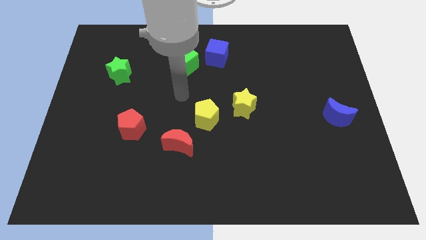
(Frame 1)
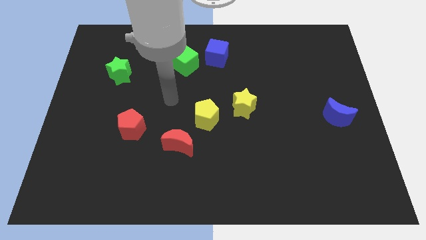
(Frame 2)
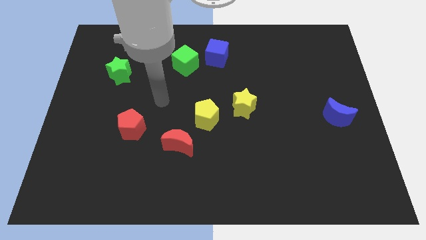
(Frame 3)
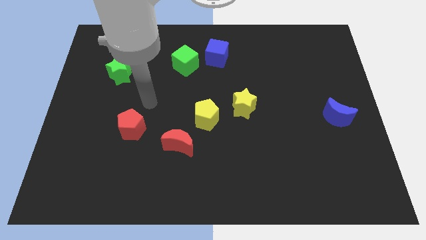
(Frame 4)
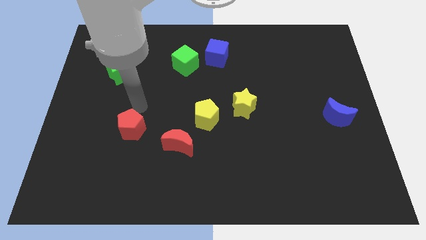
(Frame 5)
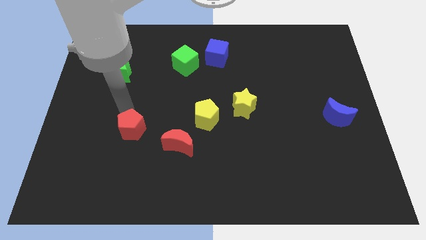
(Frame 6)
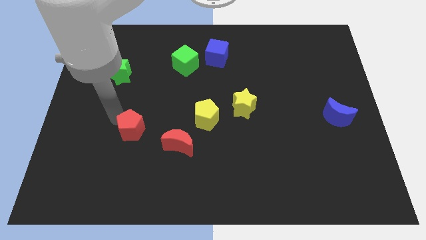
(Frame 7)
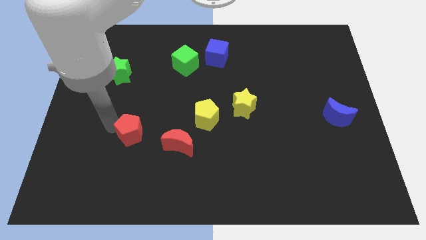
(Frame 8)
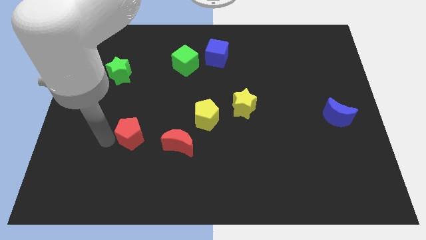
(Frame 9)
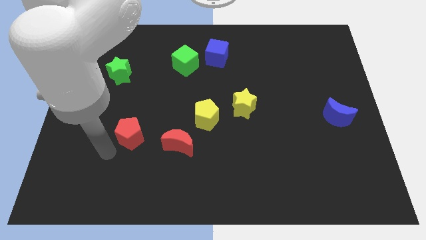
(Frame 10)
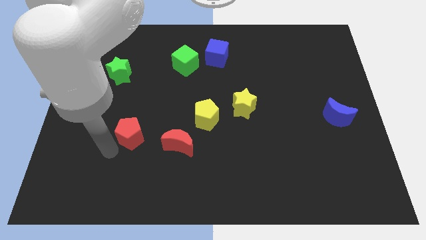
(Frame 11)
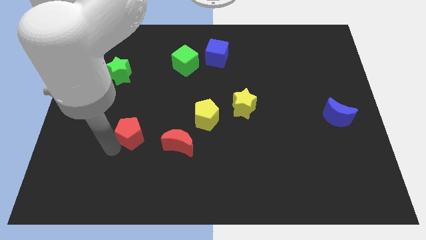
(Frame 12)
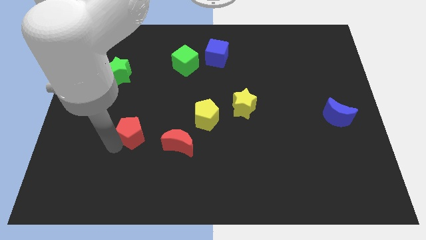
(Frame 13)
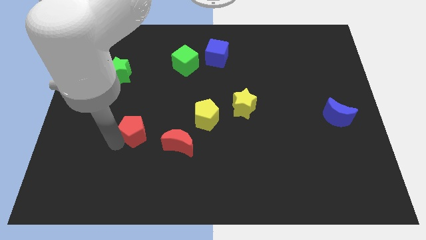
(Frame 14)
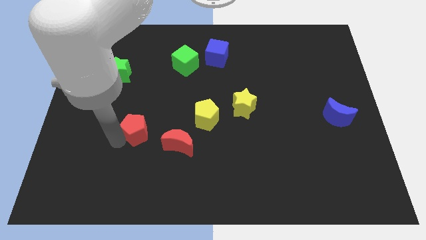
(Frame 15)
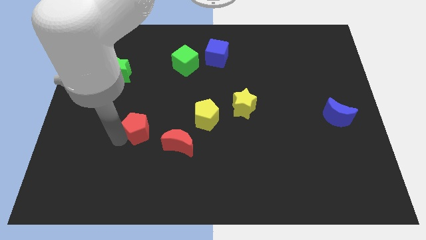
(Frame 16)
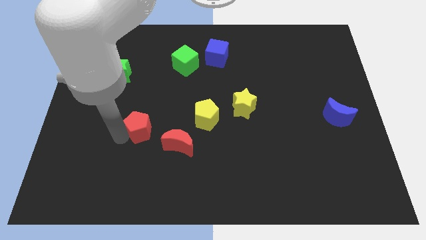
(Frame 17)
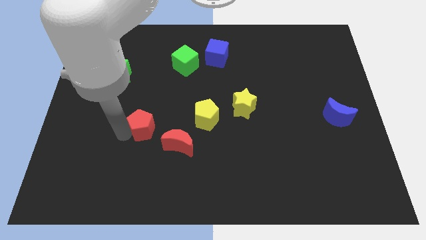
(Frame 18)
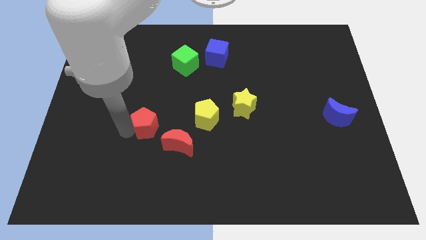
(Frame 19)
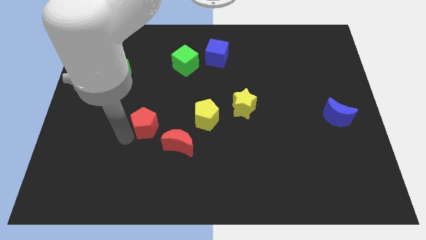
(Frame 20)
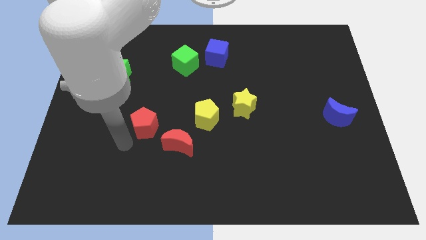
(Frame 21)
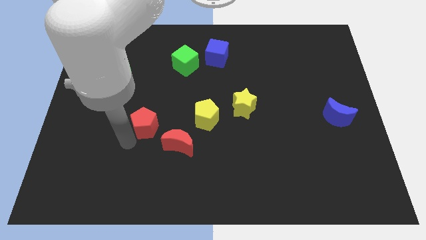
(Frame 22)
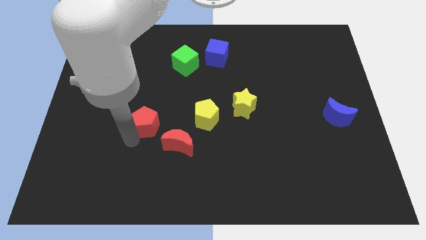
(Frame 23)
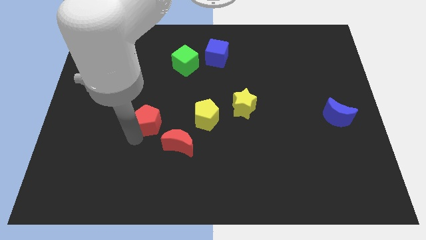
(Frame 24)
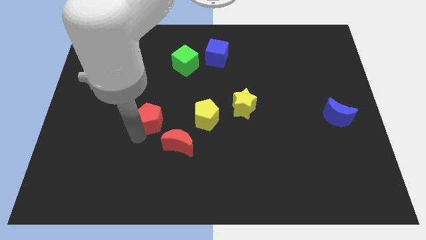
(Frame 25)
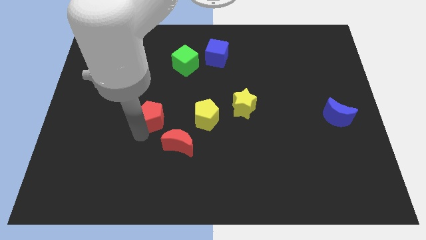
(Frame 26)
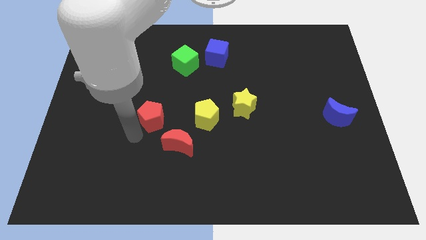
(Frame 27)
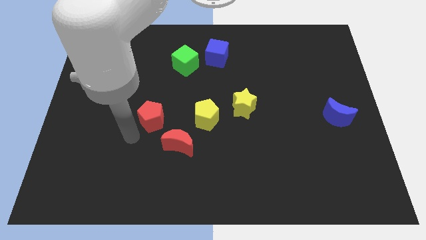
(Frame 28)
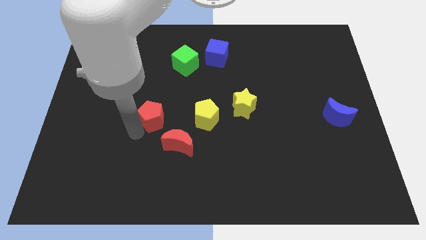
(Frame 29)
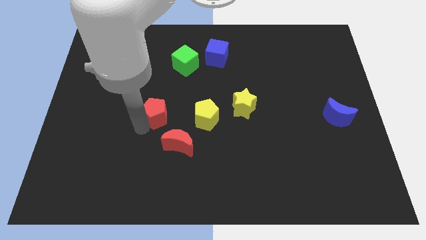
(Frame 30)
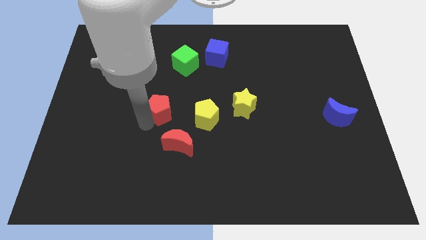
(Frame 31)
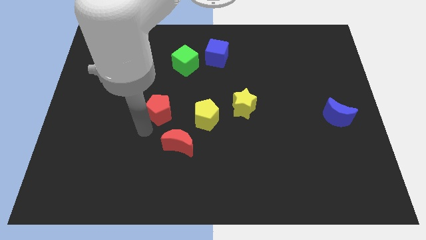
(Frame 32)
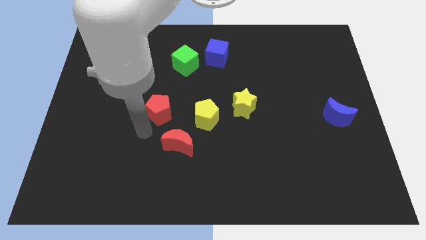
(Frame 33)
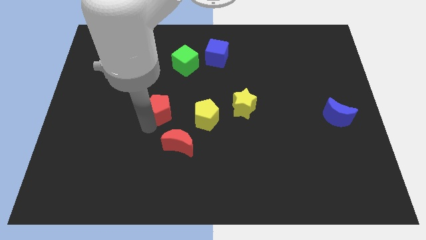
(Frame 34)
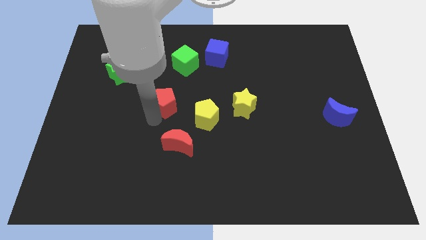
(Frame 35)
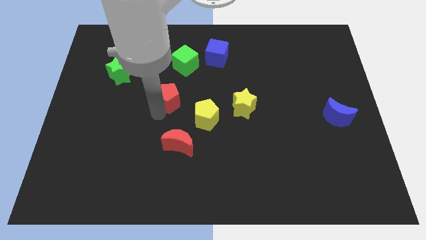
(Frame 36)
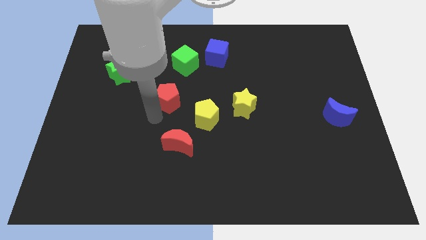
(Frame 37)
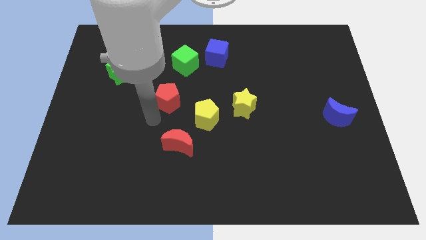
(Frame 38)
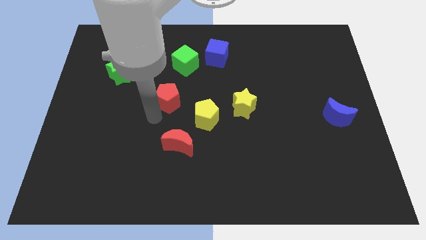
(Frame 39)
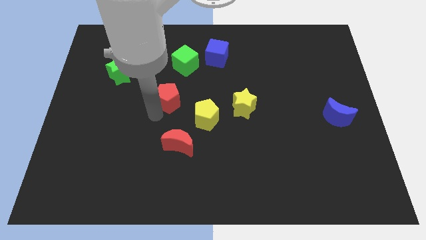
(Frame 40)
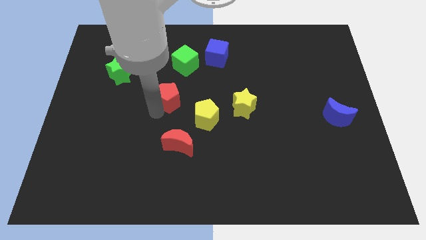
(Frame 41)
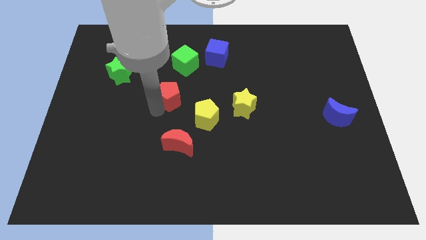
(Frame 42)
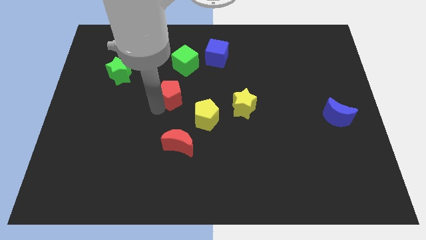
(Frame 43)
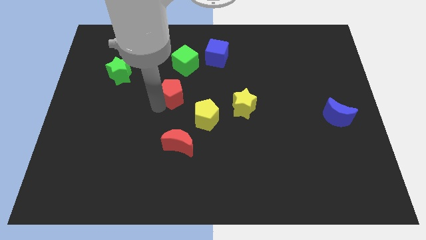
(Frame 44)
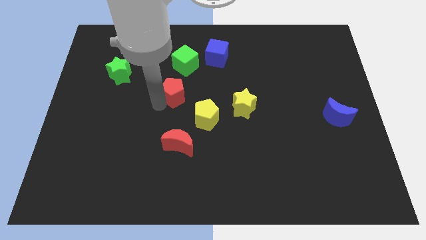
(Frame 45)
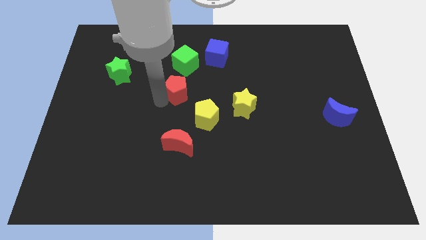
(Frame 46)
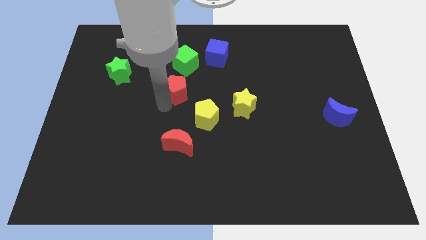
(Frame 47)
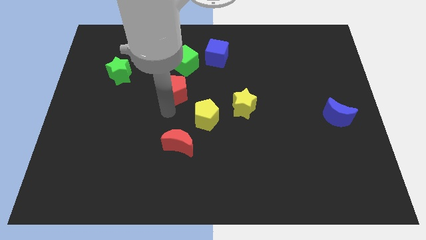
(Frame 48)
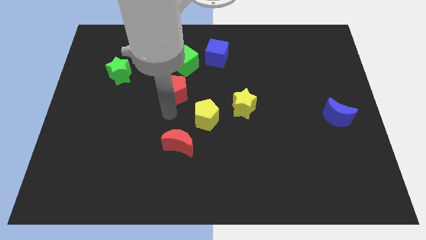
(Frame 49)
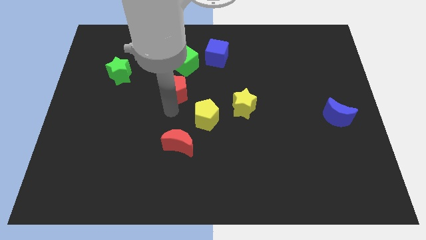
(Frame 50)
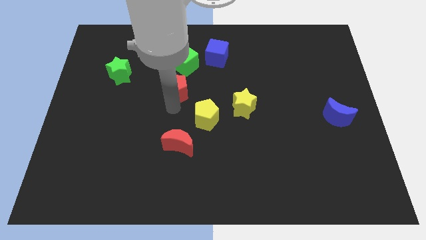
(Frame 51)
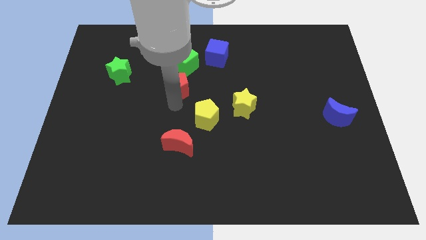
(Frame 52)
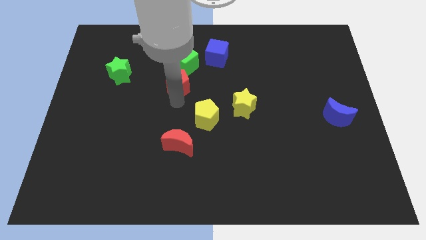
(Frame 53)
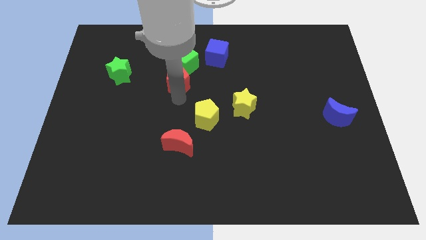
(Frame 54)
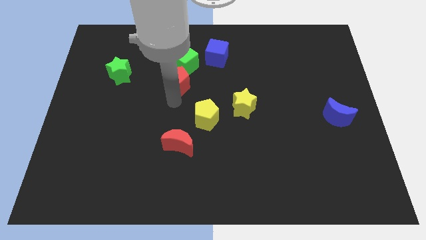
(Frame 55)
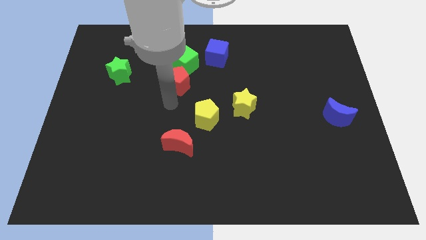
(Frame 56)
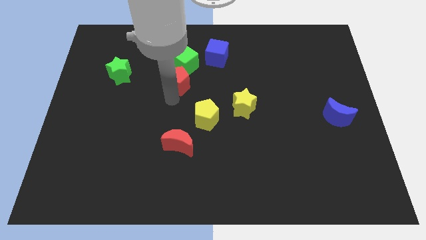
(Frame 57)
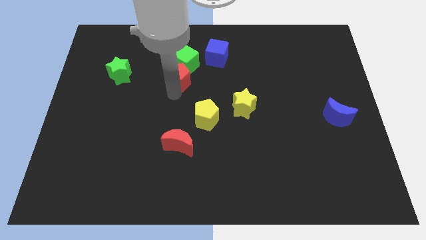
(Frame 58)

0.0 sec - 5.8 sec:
push the red pentagon towards the green cube

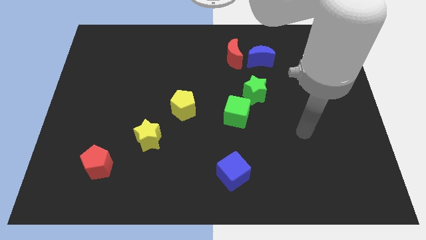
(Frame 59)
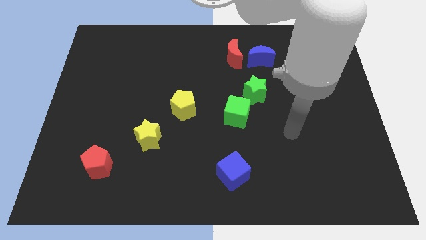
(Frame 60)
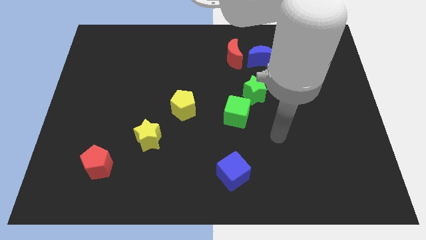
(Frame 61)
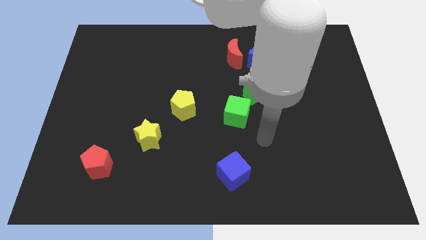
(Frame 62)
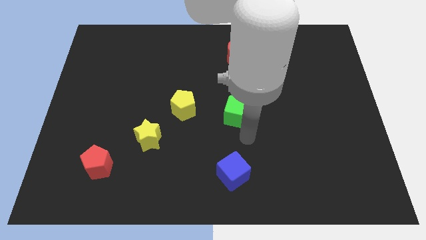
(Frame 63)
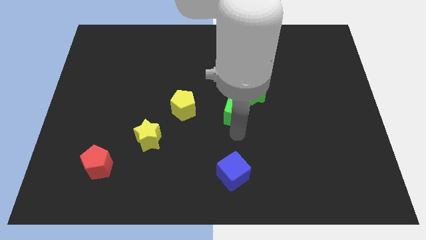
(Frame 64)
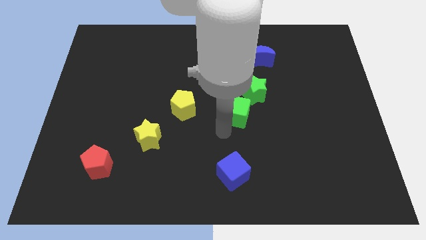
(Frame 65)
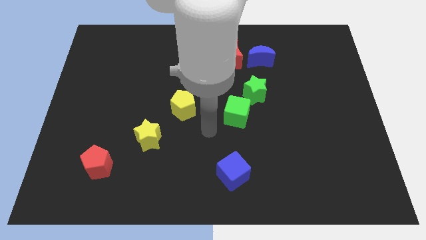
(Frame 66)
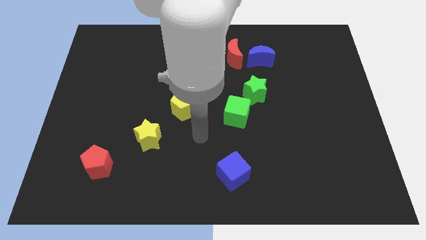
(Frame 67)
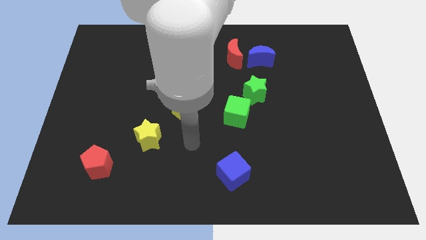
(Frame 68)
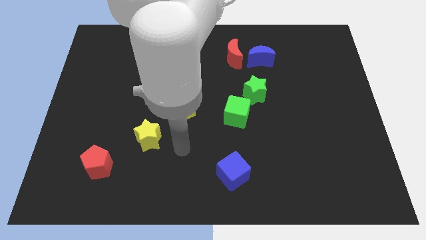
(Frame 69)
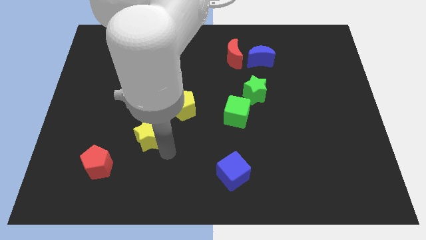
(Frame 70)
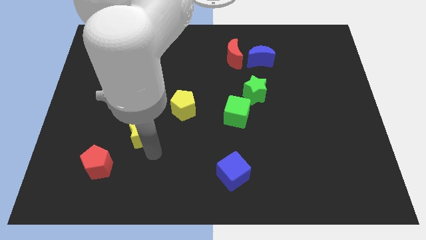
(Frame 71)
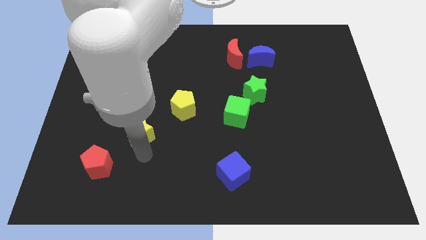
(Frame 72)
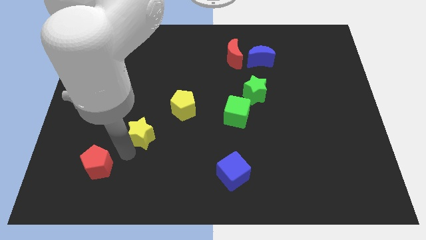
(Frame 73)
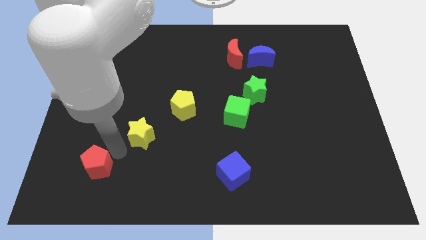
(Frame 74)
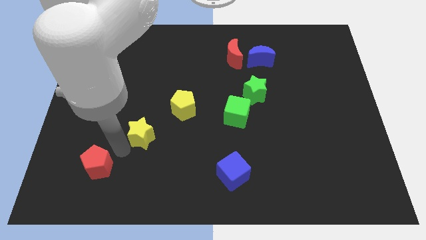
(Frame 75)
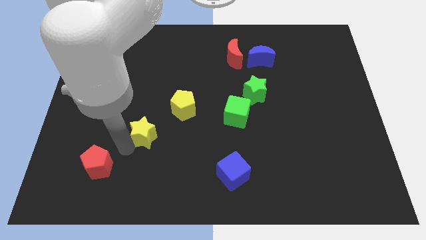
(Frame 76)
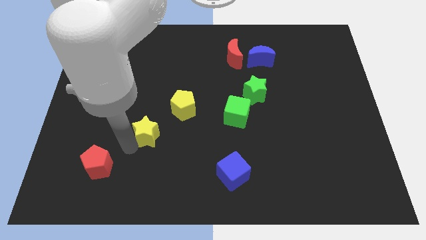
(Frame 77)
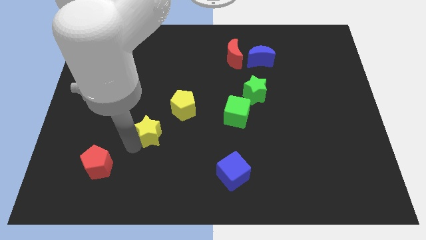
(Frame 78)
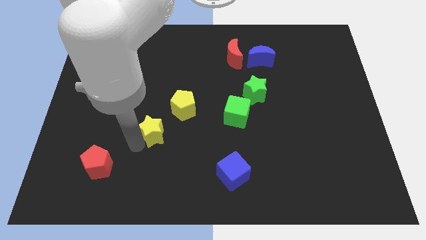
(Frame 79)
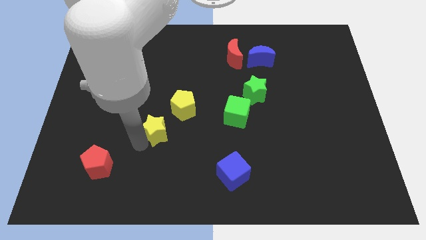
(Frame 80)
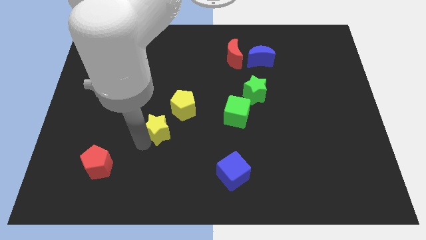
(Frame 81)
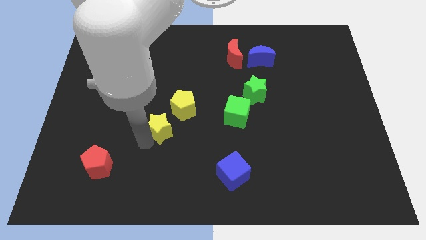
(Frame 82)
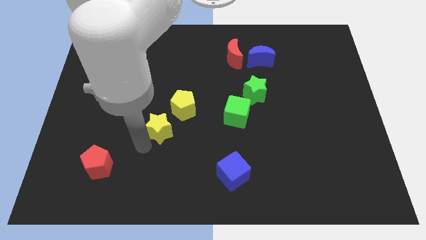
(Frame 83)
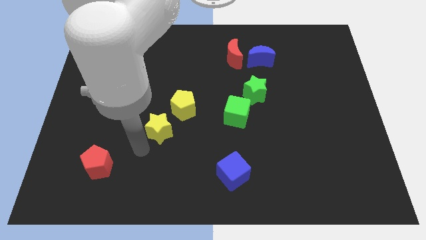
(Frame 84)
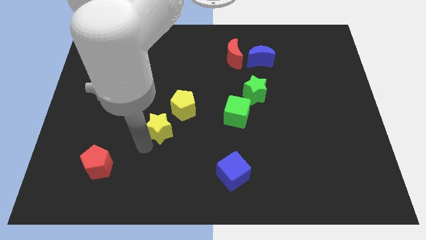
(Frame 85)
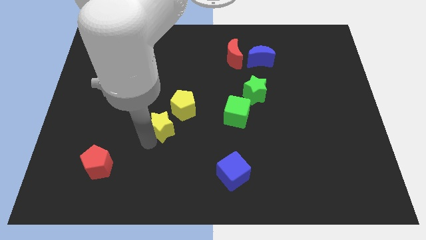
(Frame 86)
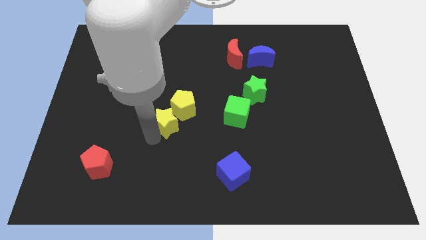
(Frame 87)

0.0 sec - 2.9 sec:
push the yellow star to the yellow pentagon
